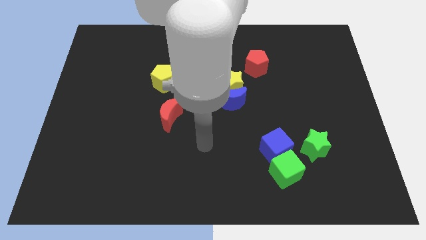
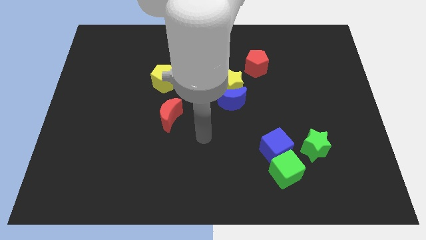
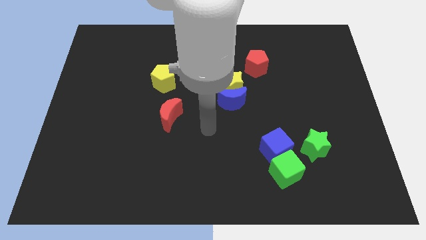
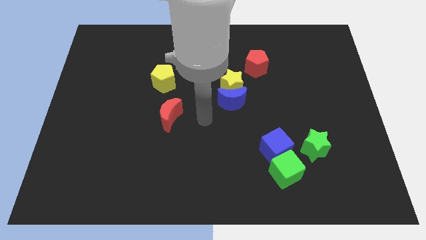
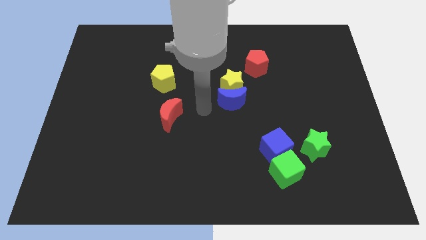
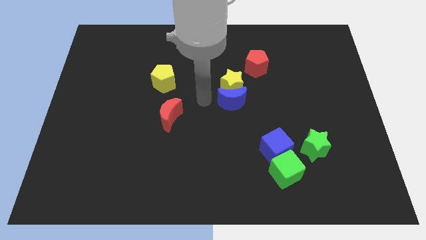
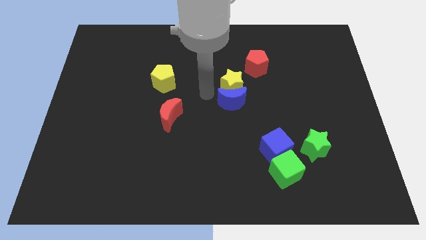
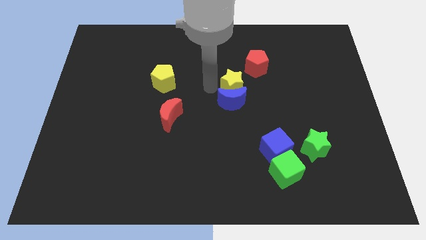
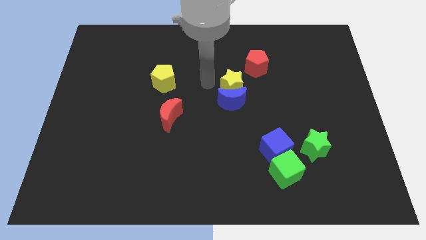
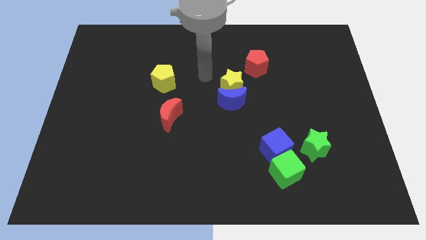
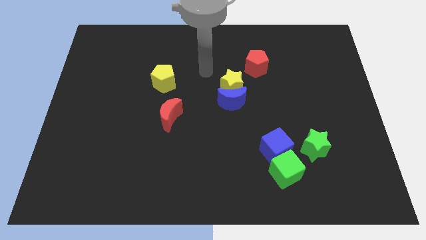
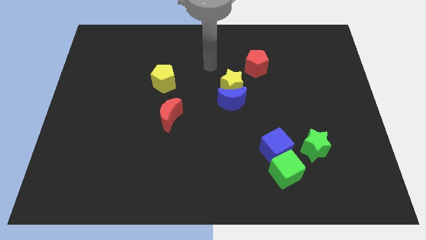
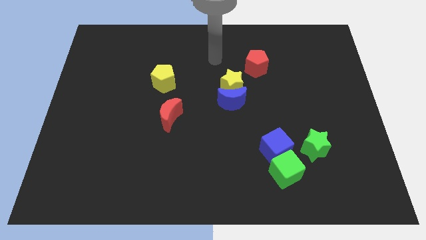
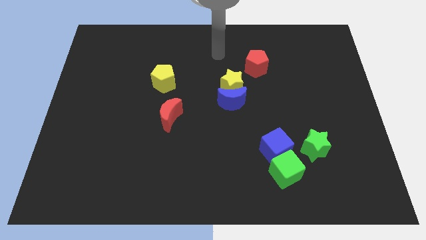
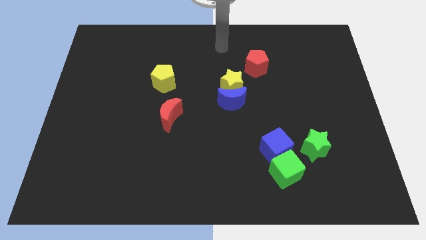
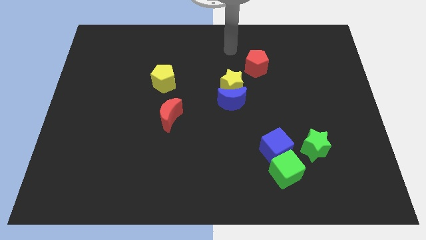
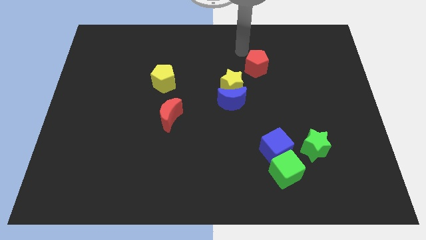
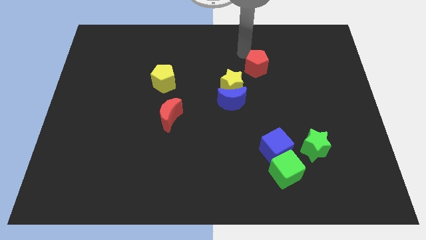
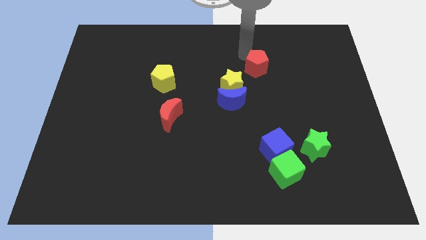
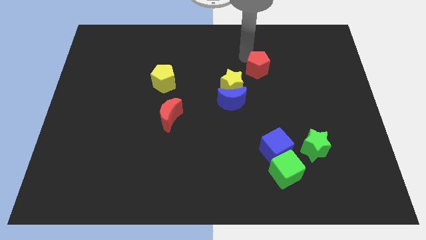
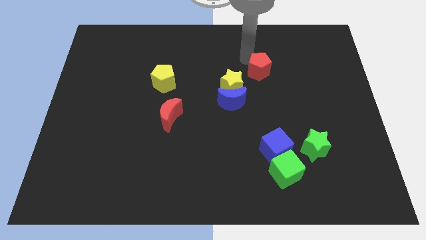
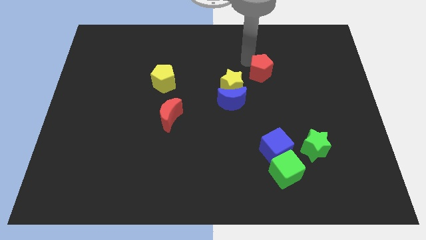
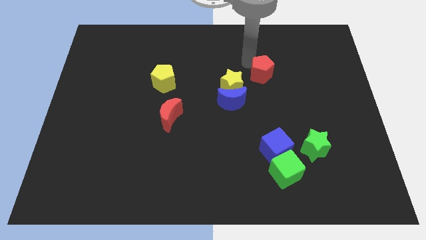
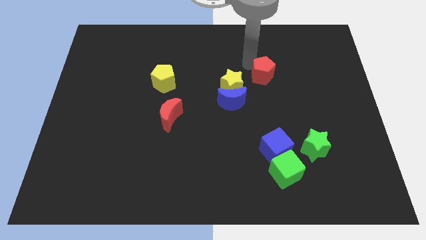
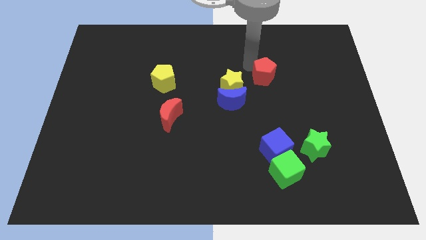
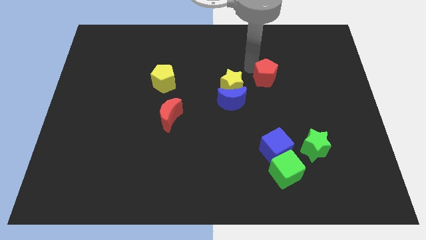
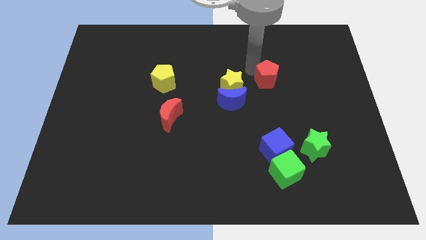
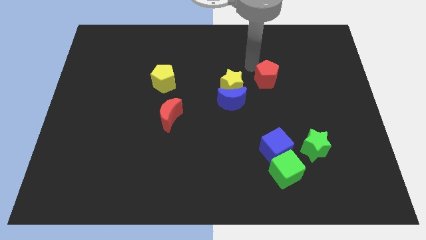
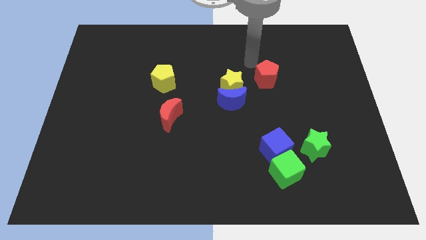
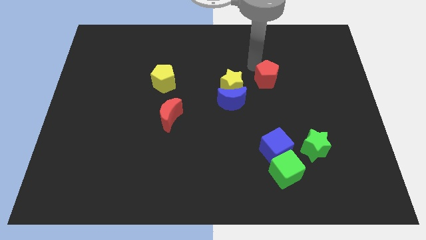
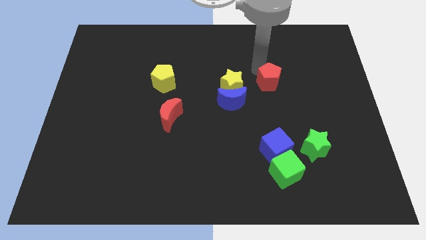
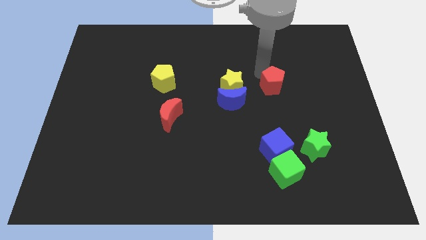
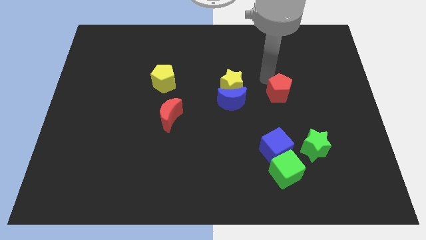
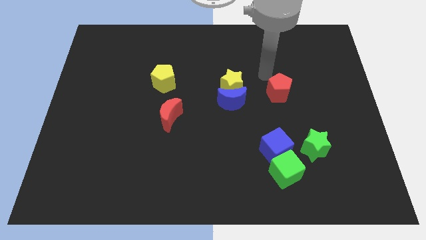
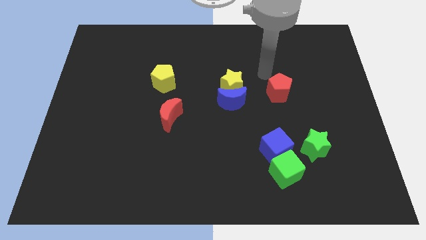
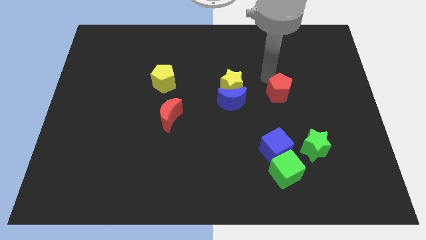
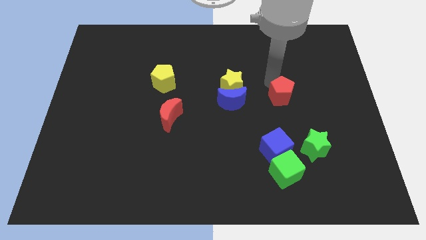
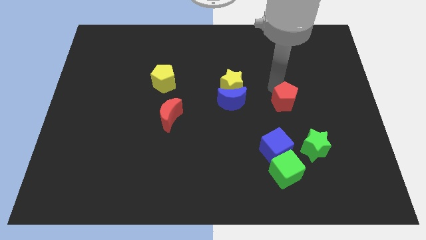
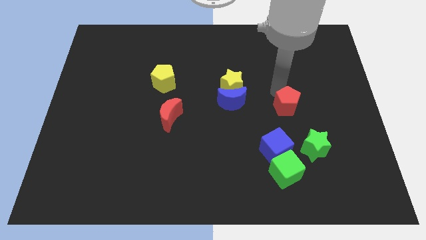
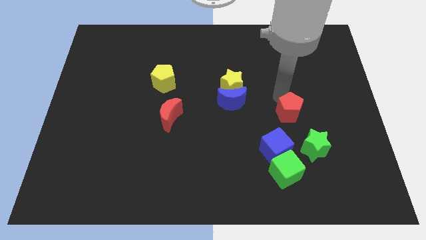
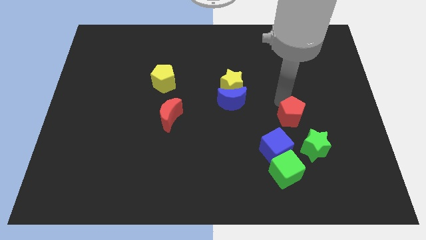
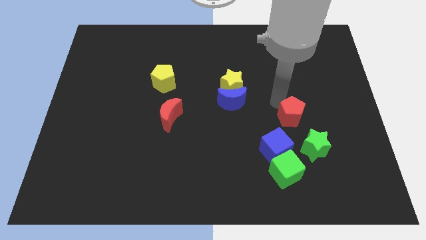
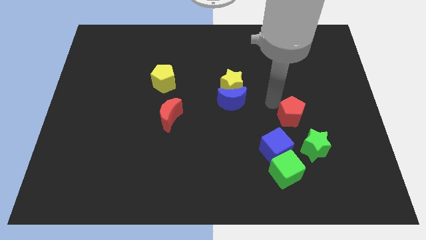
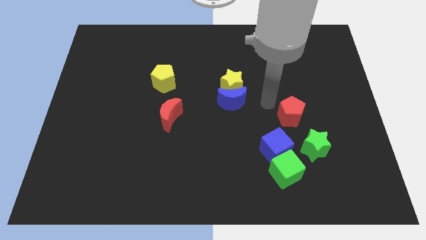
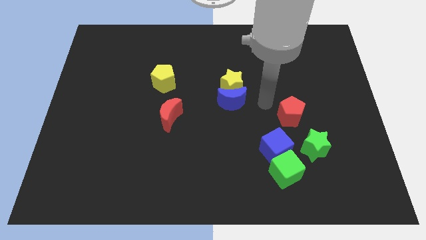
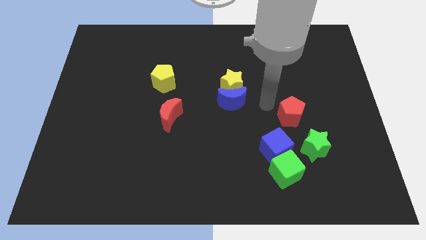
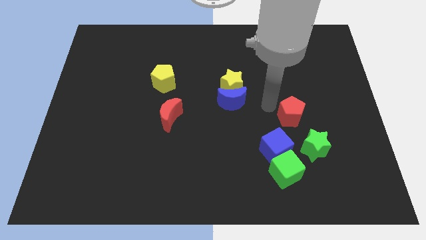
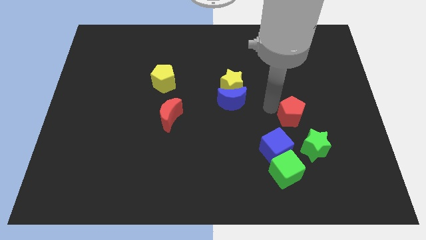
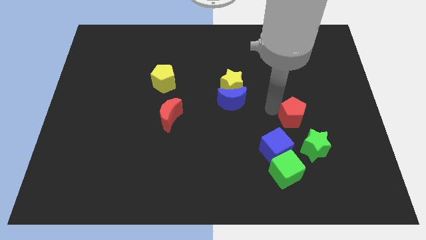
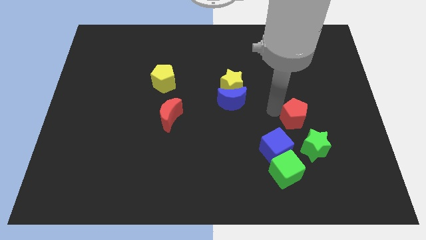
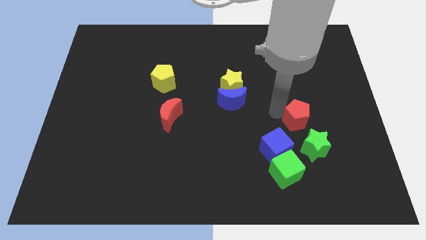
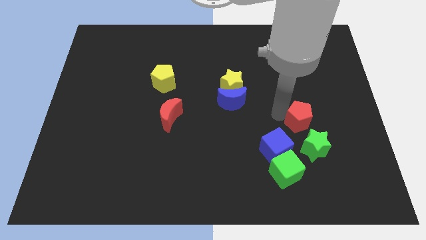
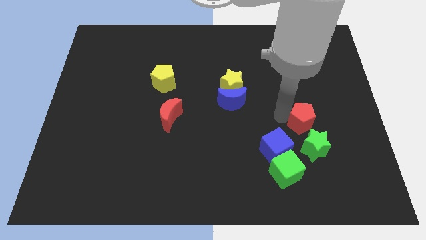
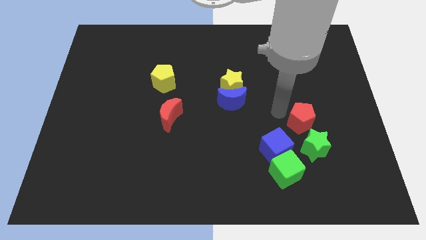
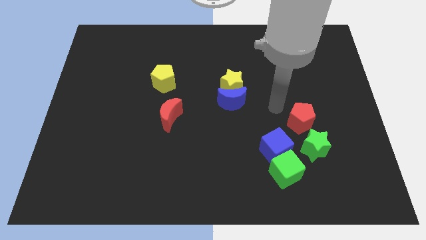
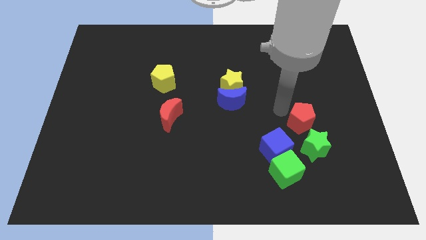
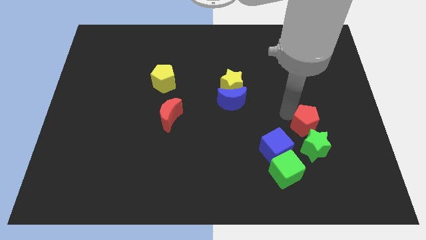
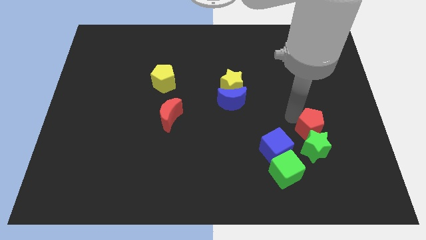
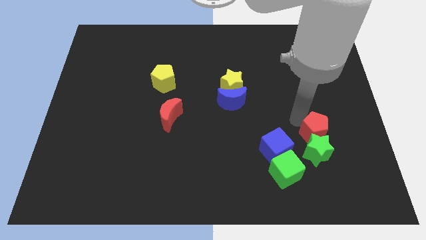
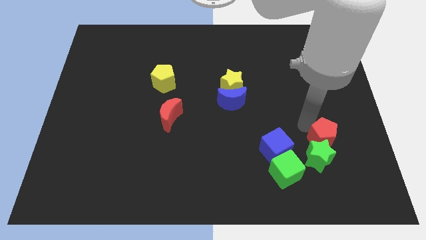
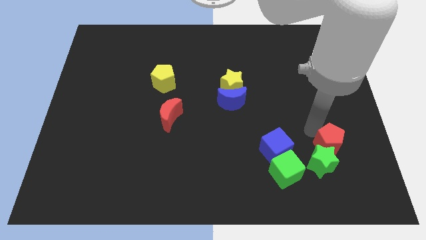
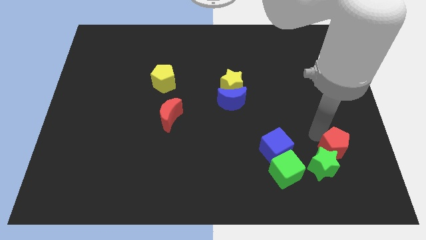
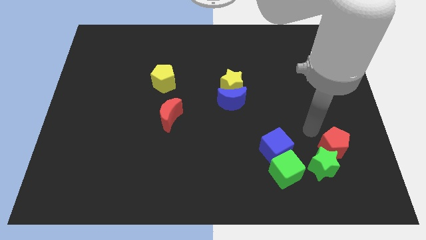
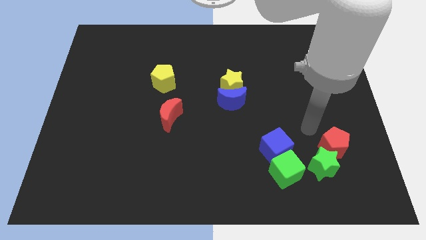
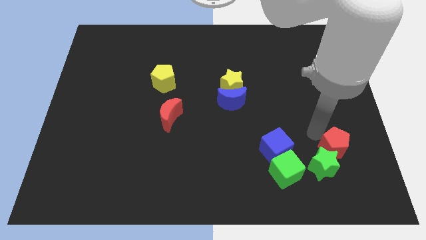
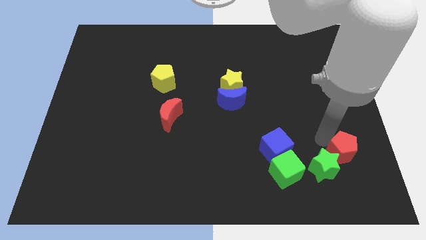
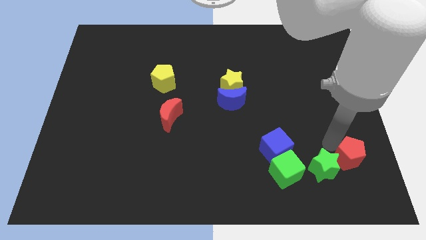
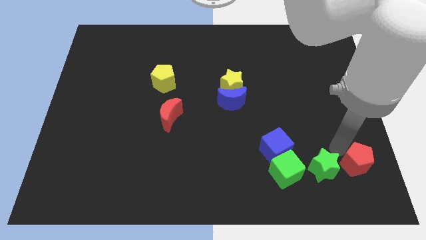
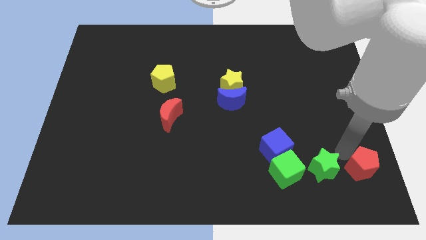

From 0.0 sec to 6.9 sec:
move the red pentagon to the bottom right corner
